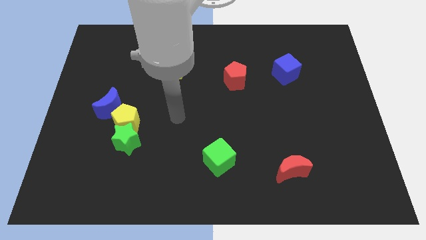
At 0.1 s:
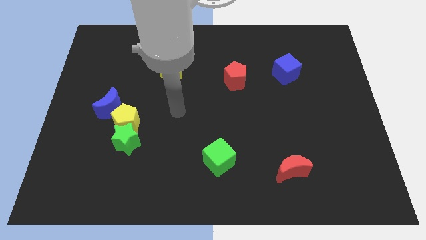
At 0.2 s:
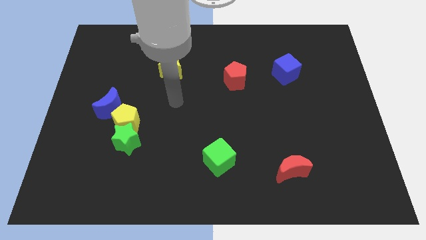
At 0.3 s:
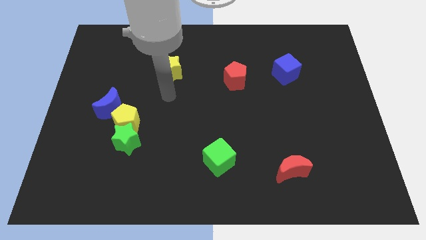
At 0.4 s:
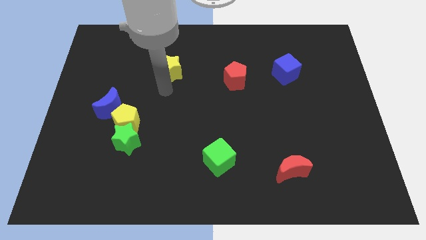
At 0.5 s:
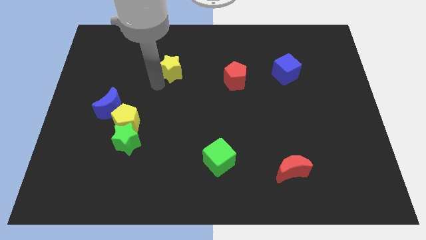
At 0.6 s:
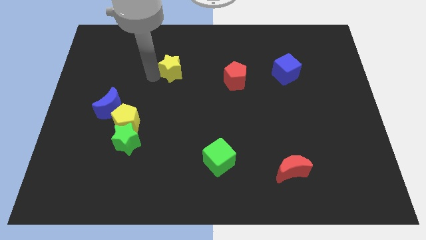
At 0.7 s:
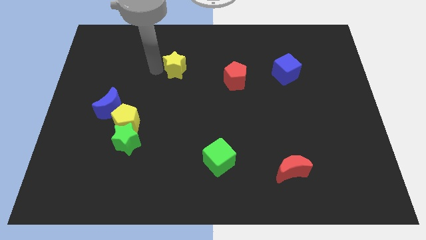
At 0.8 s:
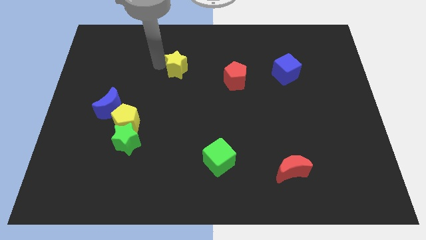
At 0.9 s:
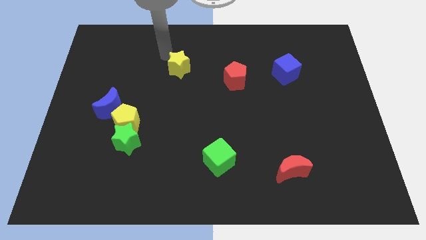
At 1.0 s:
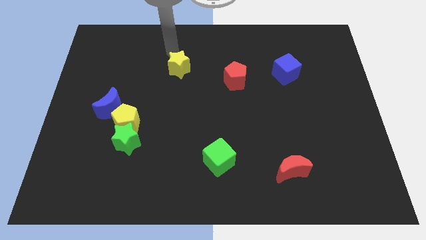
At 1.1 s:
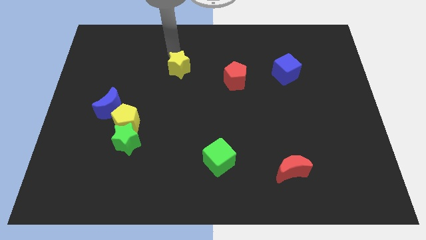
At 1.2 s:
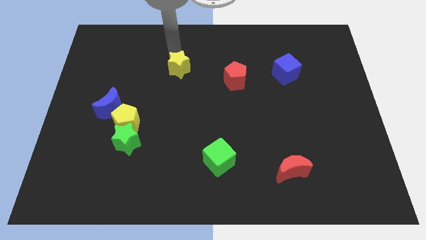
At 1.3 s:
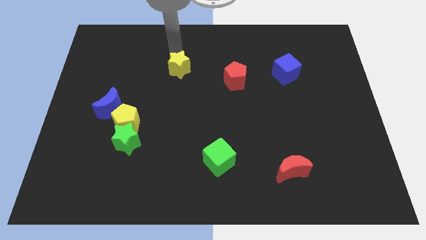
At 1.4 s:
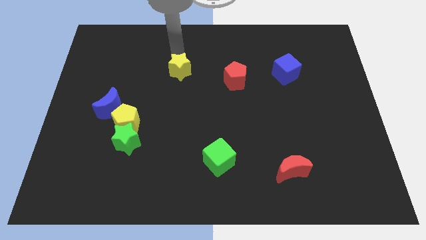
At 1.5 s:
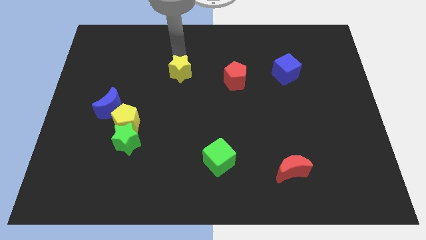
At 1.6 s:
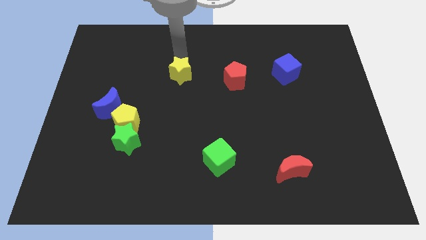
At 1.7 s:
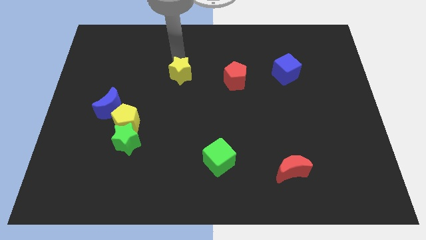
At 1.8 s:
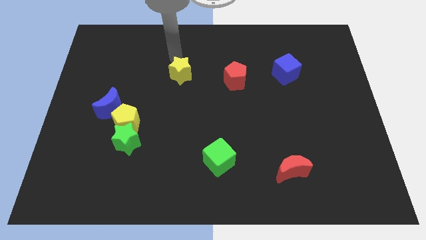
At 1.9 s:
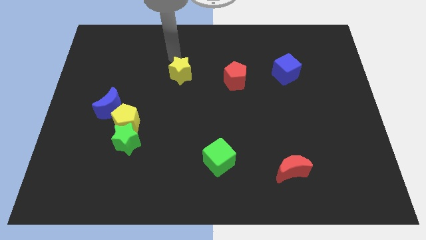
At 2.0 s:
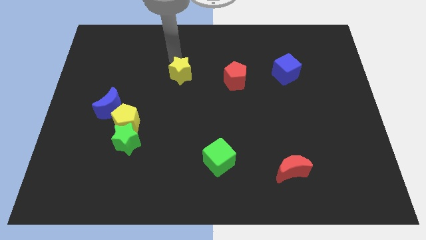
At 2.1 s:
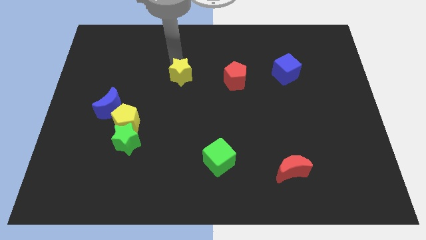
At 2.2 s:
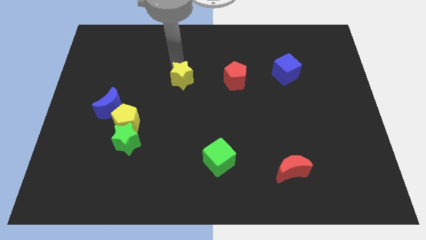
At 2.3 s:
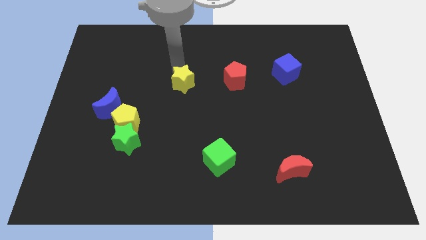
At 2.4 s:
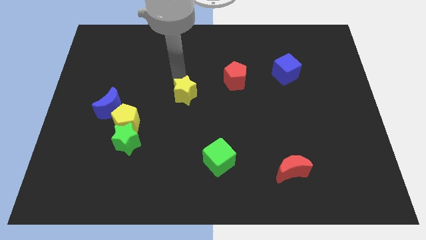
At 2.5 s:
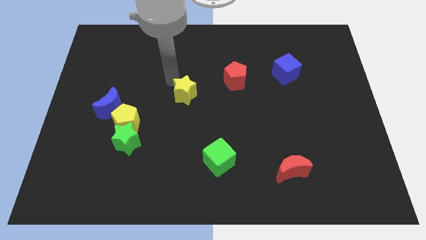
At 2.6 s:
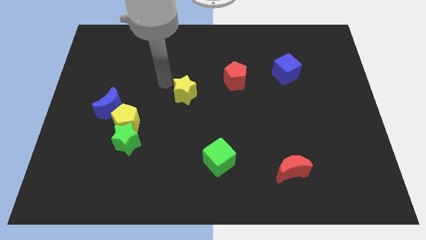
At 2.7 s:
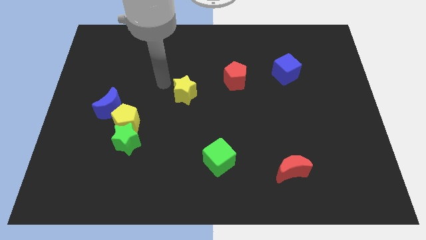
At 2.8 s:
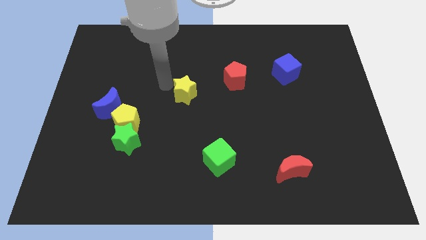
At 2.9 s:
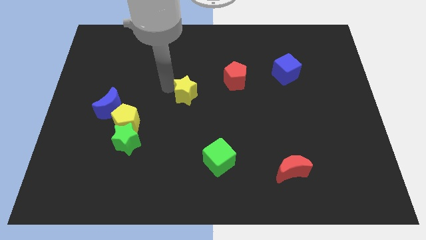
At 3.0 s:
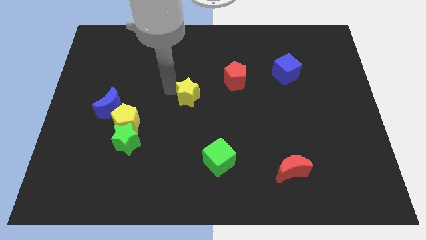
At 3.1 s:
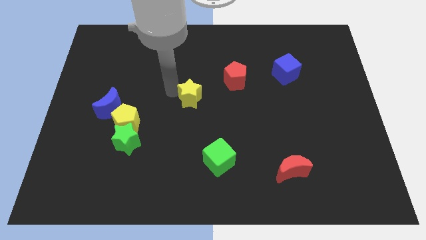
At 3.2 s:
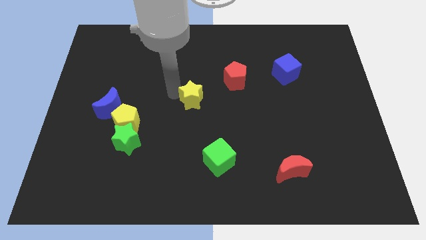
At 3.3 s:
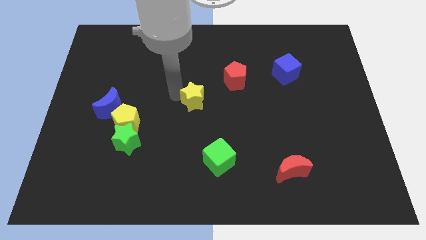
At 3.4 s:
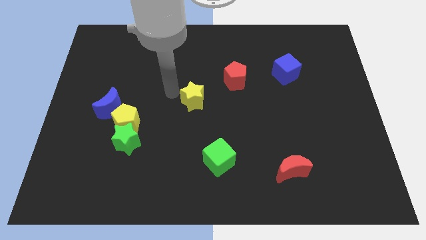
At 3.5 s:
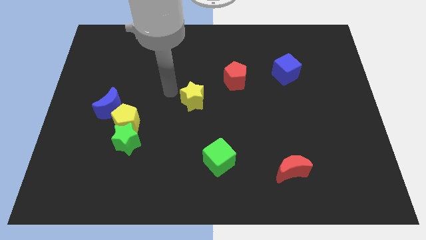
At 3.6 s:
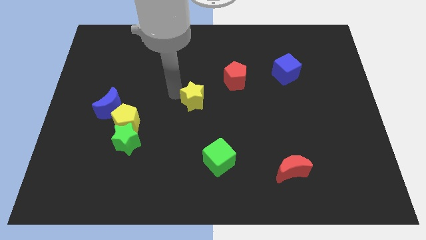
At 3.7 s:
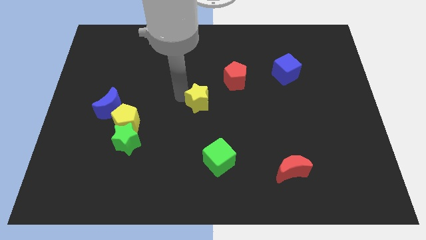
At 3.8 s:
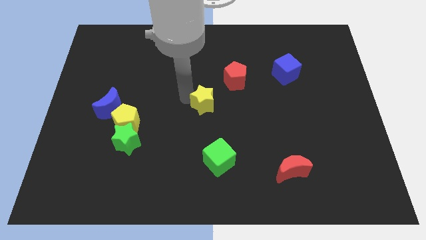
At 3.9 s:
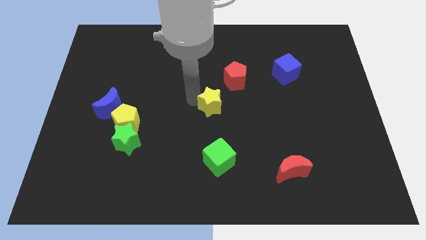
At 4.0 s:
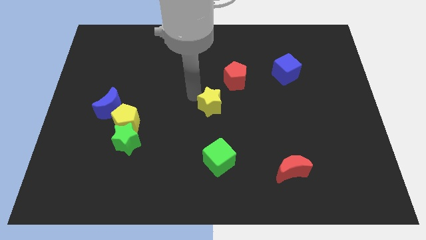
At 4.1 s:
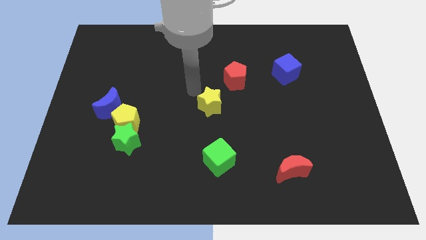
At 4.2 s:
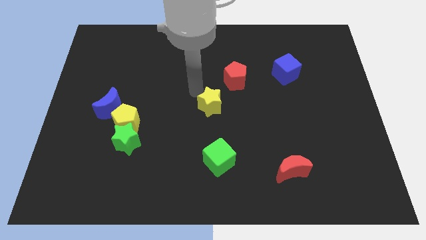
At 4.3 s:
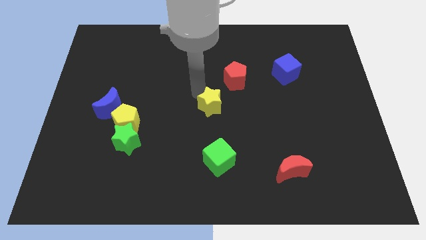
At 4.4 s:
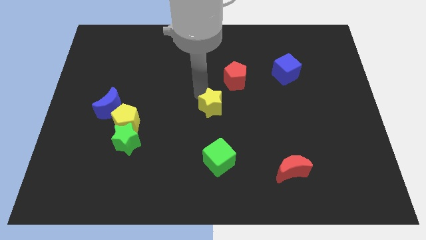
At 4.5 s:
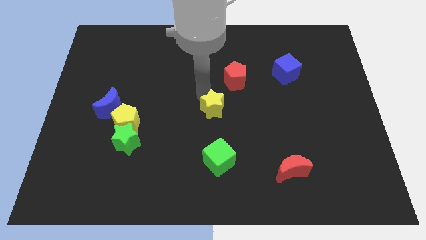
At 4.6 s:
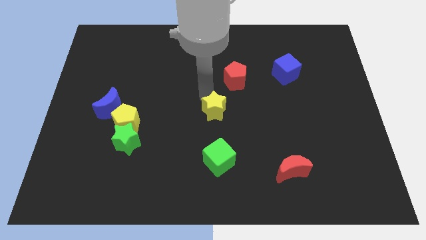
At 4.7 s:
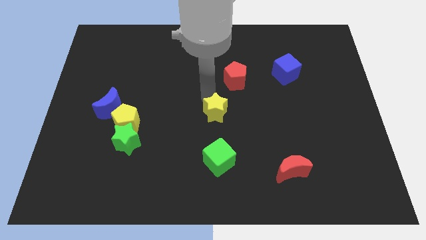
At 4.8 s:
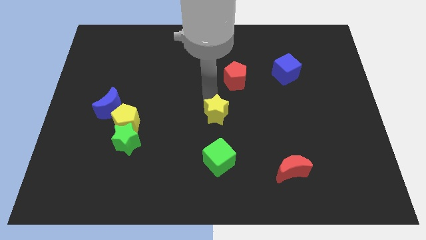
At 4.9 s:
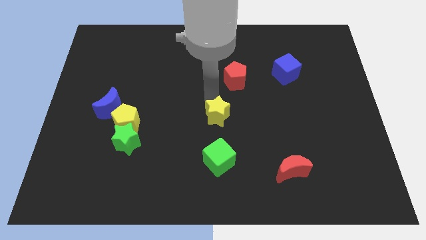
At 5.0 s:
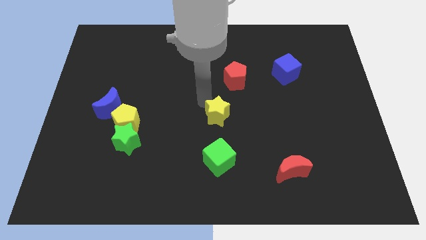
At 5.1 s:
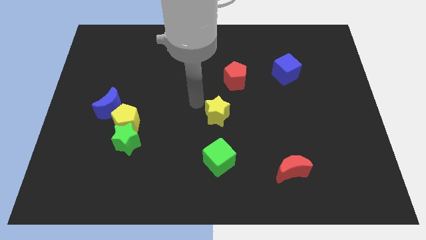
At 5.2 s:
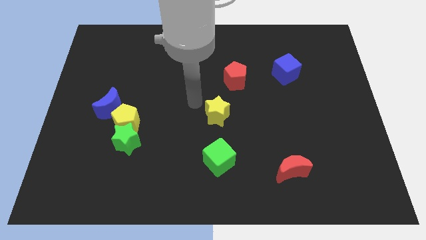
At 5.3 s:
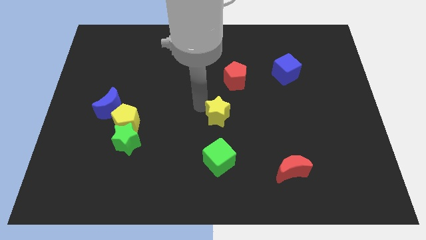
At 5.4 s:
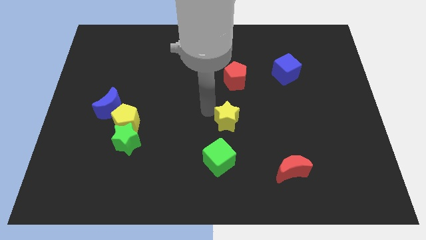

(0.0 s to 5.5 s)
move the yellow star down and right

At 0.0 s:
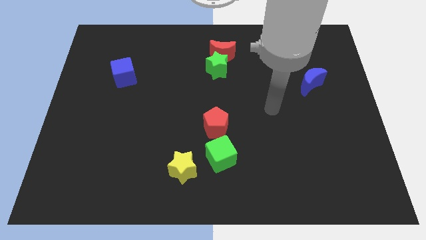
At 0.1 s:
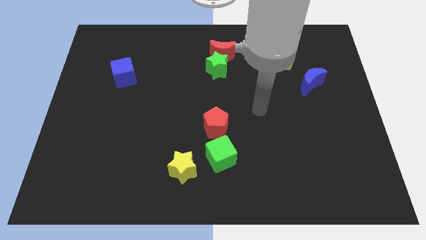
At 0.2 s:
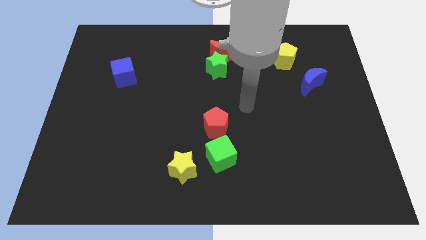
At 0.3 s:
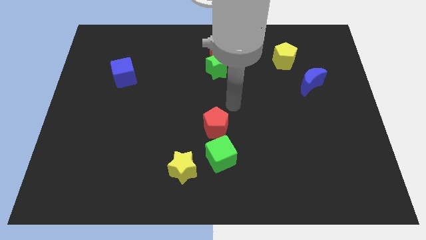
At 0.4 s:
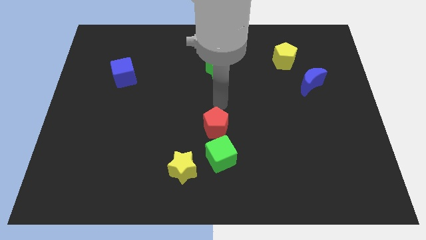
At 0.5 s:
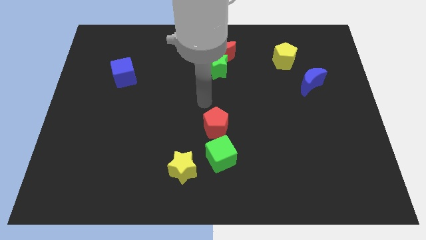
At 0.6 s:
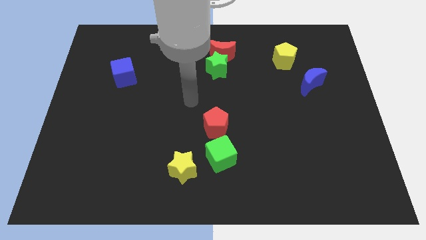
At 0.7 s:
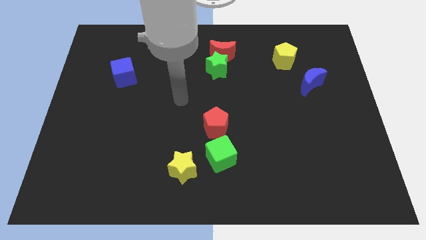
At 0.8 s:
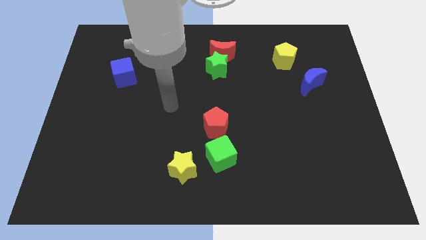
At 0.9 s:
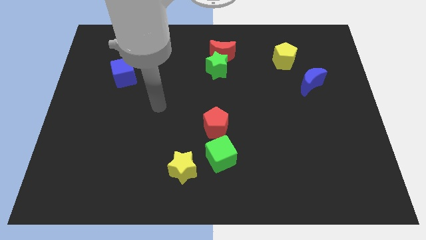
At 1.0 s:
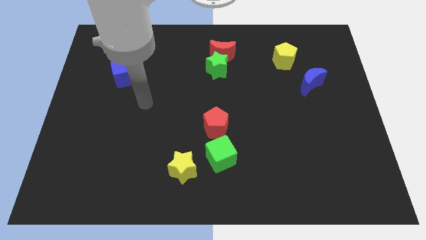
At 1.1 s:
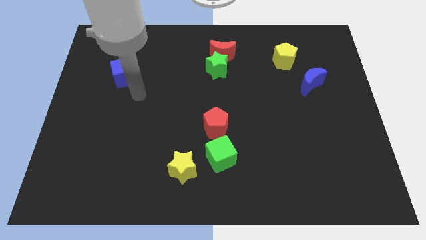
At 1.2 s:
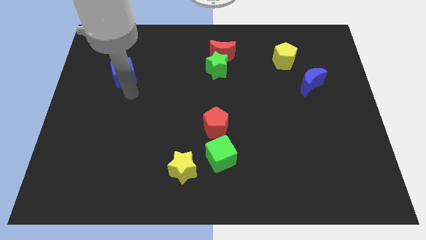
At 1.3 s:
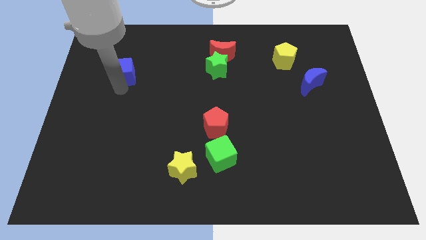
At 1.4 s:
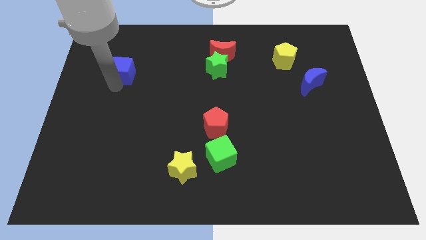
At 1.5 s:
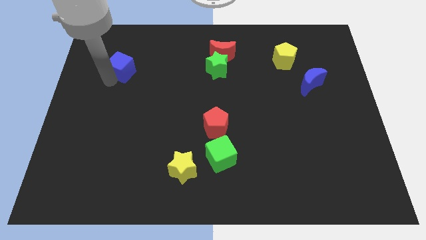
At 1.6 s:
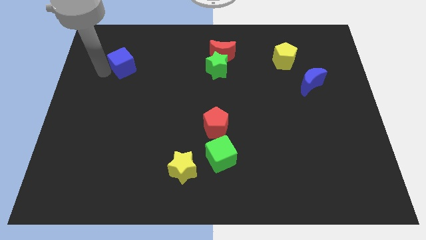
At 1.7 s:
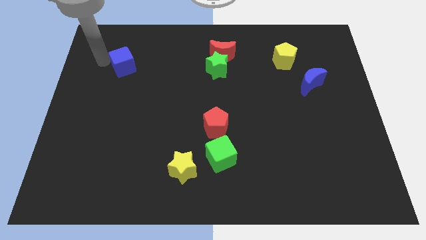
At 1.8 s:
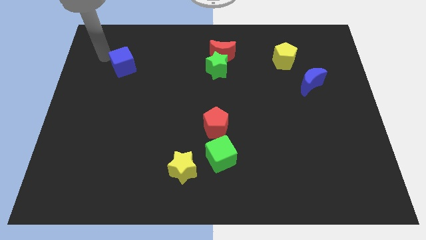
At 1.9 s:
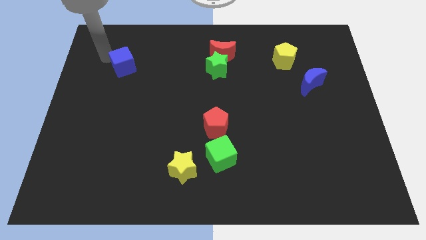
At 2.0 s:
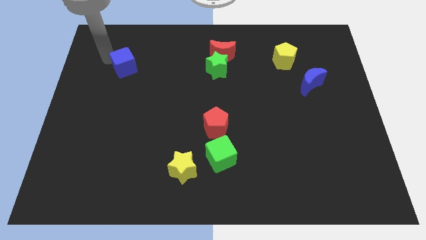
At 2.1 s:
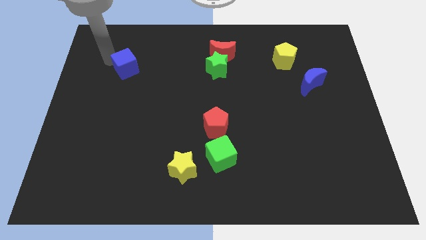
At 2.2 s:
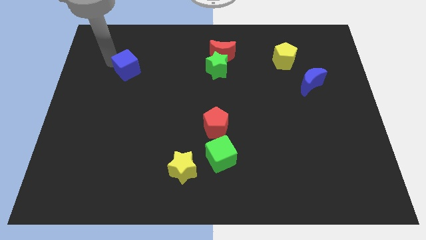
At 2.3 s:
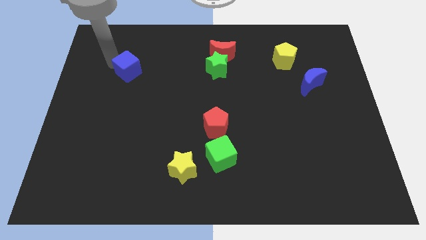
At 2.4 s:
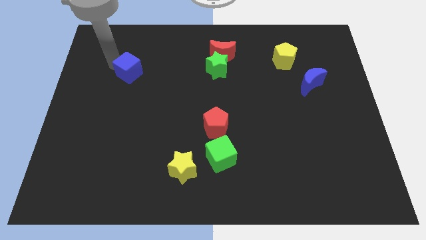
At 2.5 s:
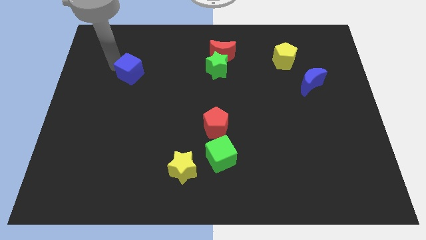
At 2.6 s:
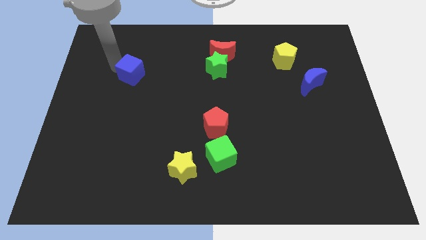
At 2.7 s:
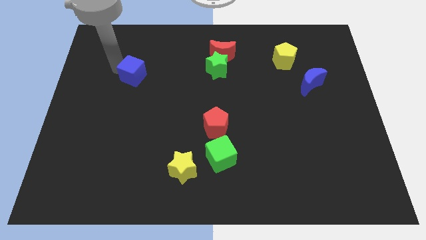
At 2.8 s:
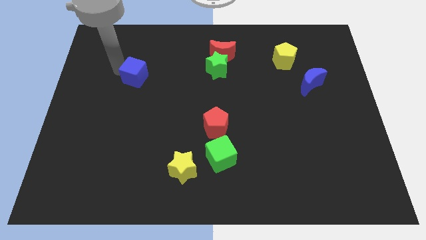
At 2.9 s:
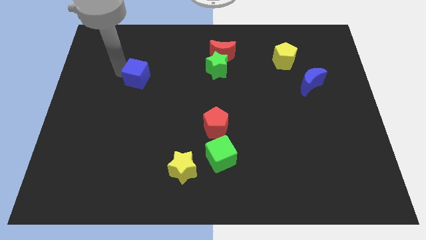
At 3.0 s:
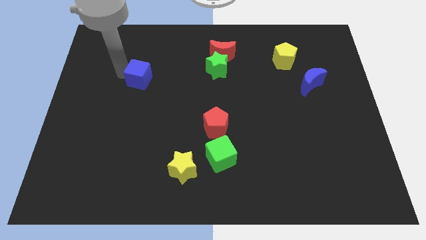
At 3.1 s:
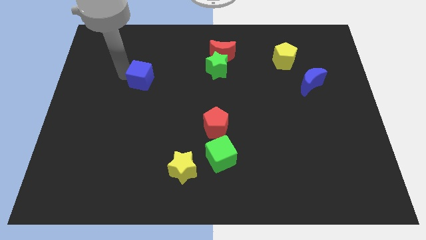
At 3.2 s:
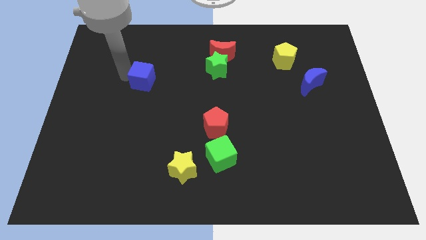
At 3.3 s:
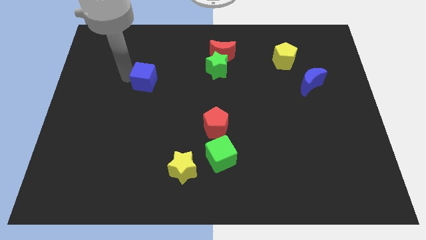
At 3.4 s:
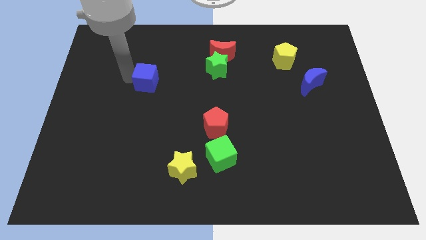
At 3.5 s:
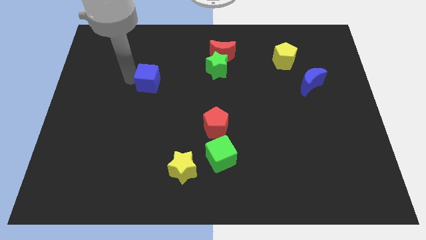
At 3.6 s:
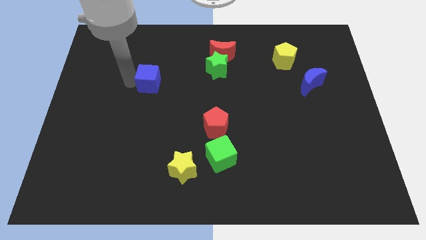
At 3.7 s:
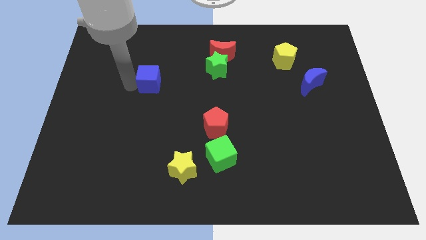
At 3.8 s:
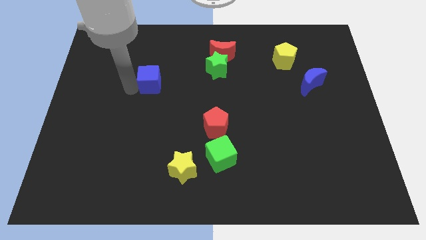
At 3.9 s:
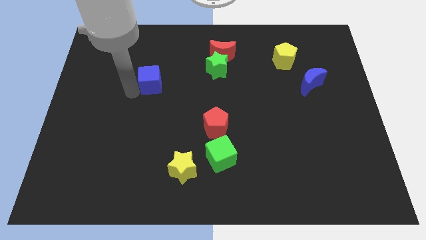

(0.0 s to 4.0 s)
slightly slide the blue cube right
